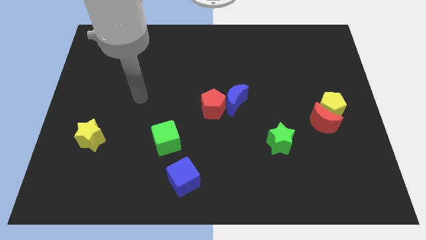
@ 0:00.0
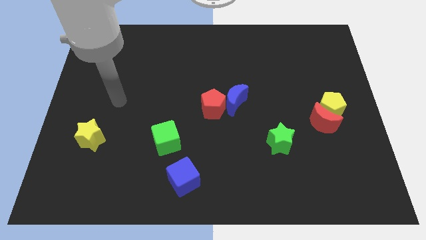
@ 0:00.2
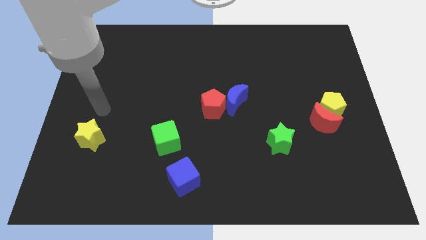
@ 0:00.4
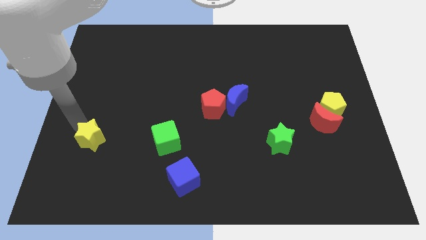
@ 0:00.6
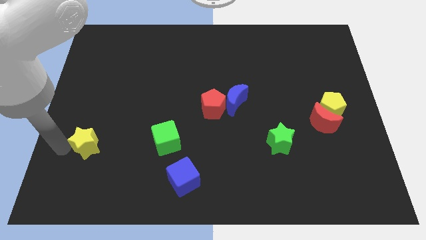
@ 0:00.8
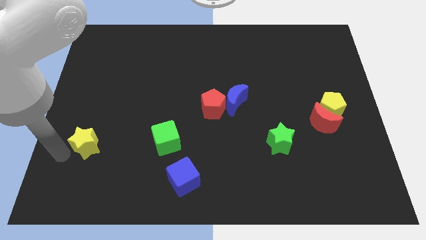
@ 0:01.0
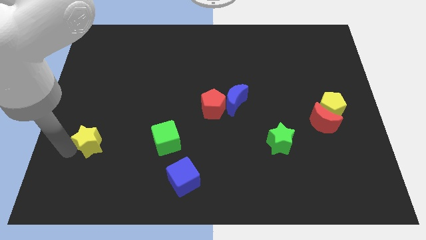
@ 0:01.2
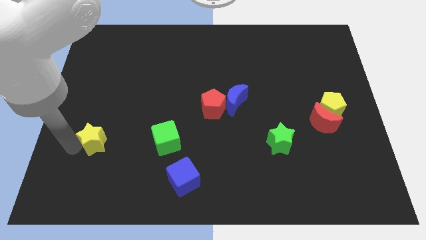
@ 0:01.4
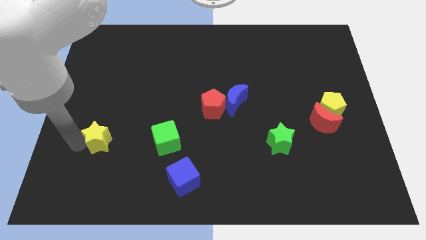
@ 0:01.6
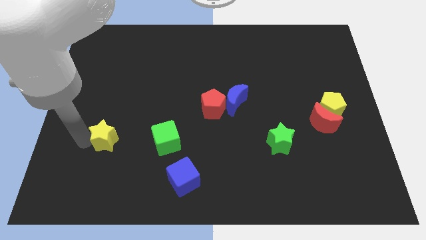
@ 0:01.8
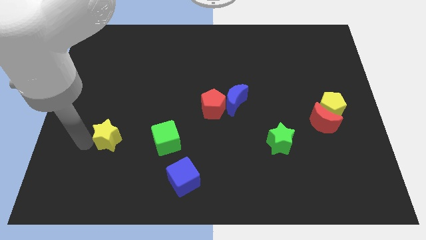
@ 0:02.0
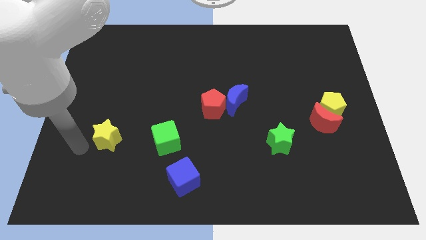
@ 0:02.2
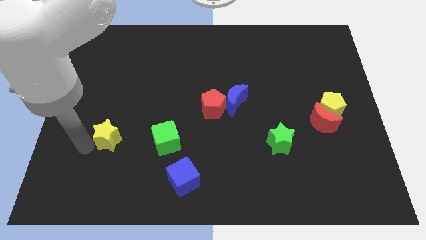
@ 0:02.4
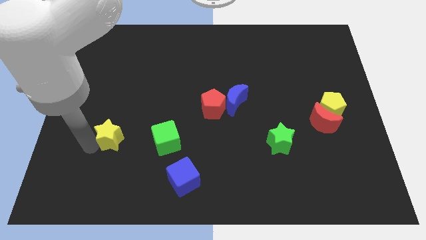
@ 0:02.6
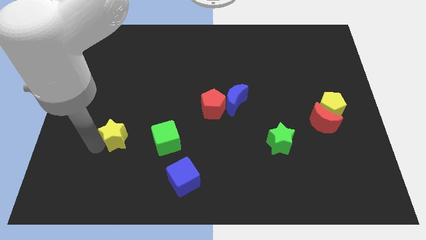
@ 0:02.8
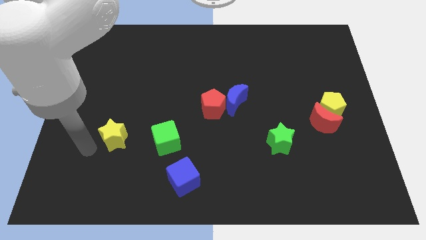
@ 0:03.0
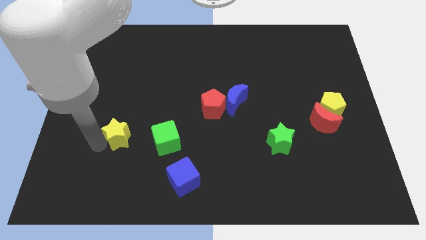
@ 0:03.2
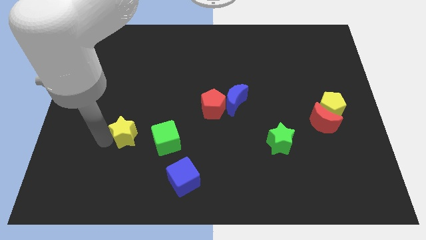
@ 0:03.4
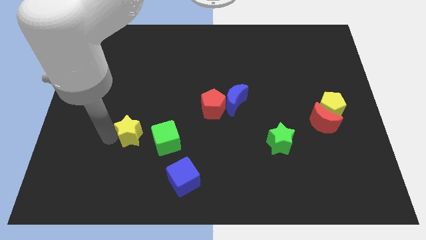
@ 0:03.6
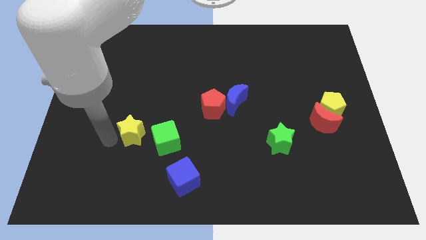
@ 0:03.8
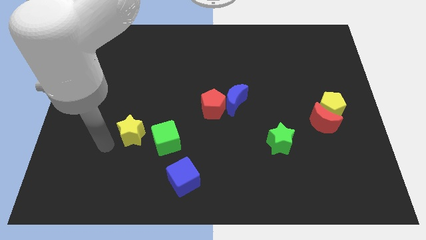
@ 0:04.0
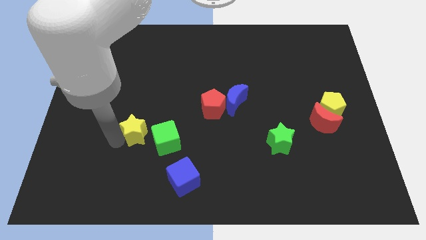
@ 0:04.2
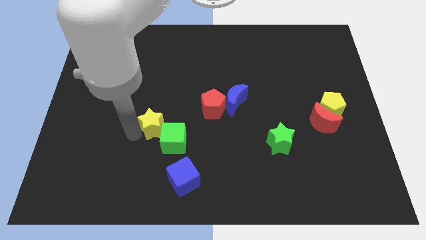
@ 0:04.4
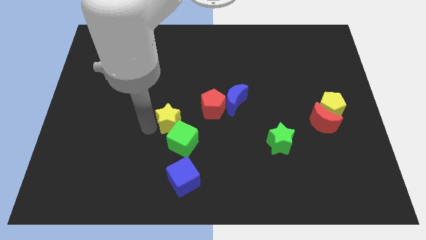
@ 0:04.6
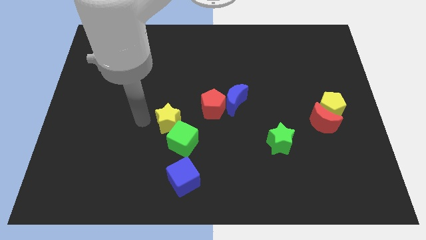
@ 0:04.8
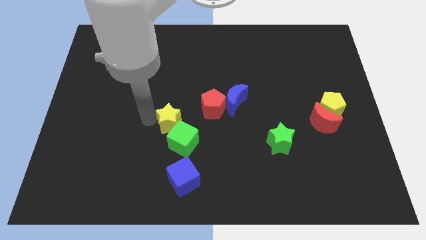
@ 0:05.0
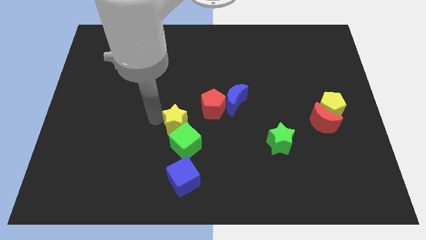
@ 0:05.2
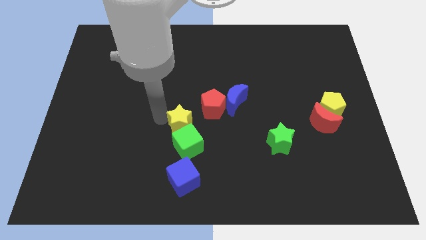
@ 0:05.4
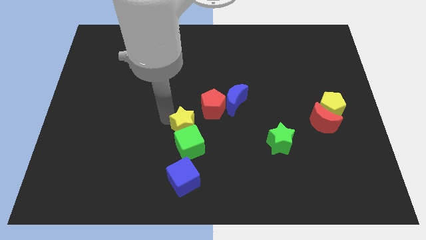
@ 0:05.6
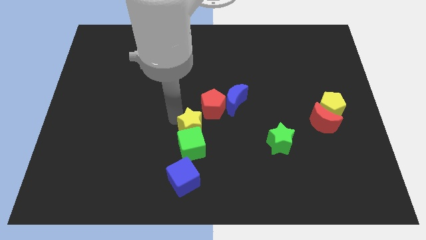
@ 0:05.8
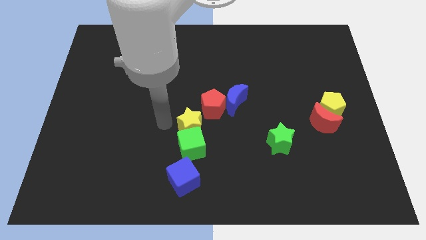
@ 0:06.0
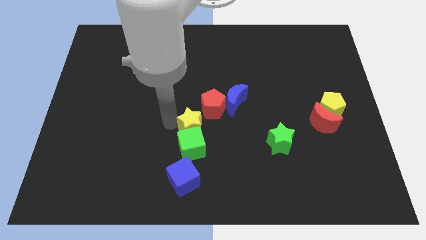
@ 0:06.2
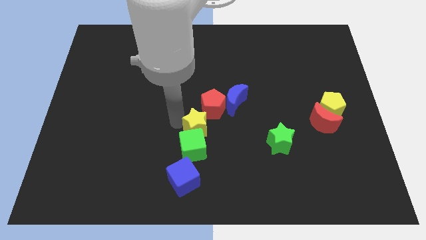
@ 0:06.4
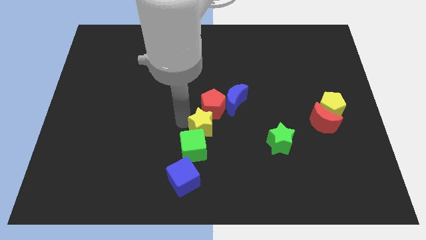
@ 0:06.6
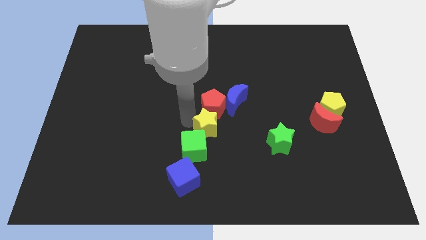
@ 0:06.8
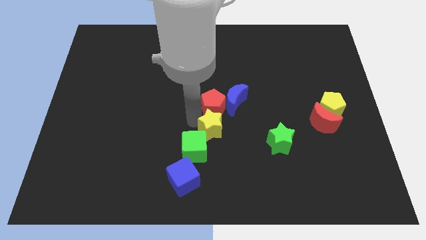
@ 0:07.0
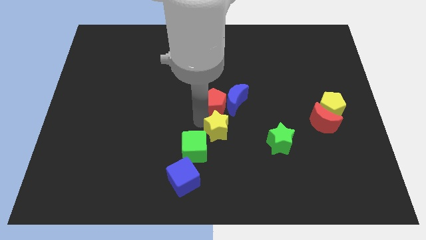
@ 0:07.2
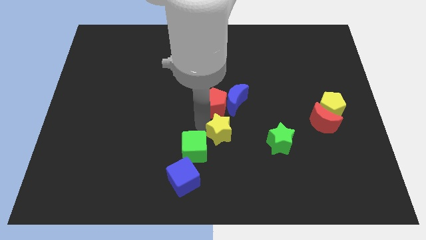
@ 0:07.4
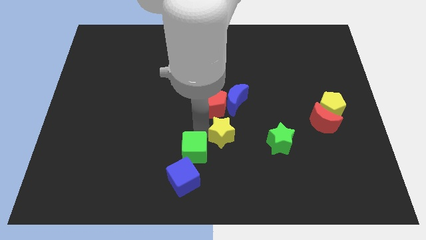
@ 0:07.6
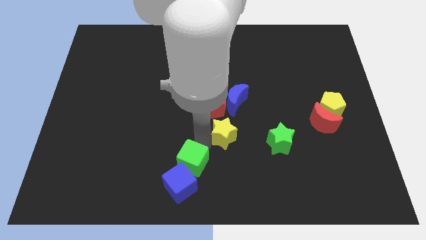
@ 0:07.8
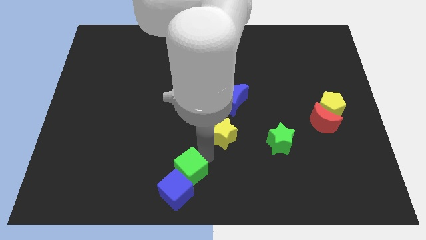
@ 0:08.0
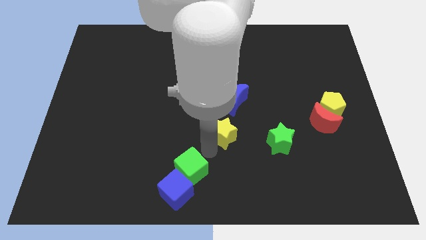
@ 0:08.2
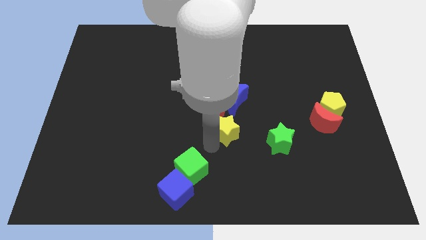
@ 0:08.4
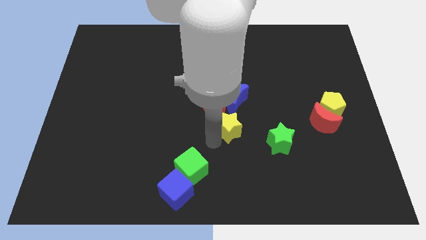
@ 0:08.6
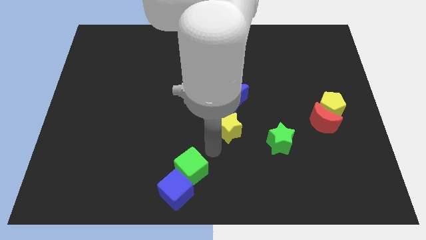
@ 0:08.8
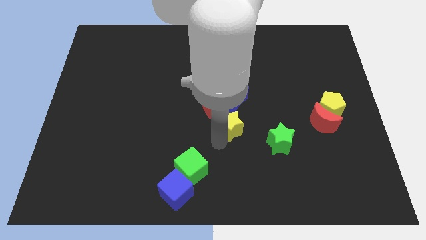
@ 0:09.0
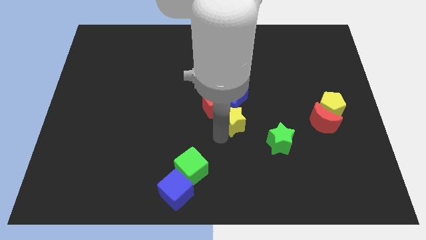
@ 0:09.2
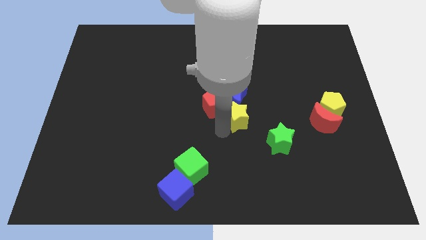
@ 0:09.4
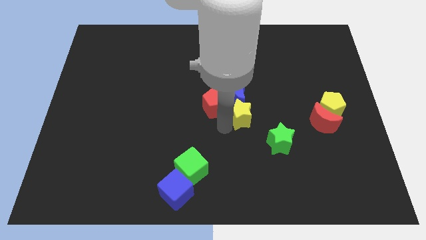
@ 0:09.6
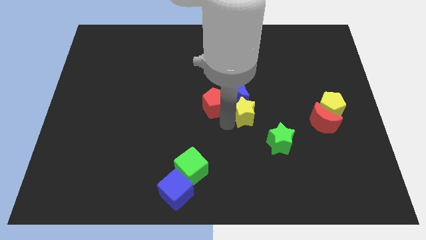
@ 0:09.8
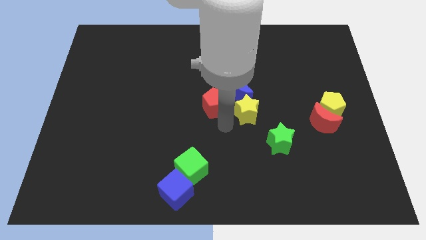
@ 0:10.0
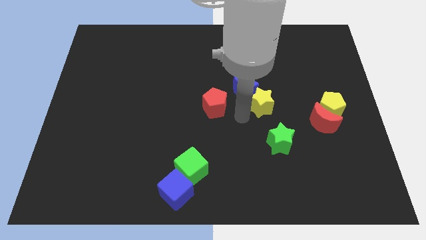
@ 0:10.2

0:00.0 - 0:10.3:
move the yellow star to the right of the blue moon

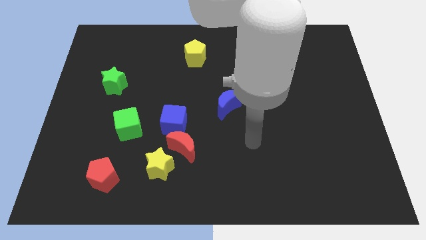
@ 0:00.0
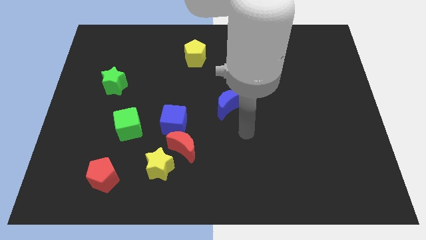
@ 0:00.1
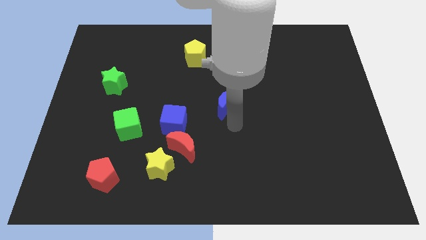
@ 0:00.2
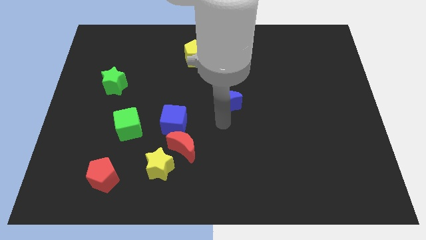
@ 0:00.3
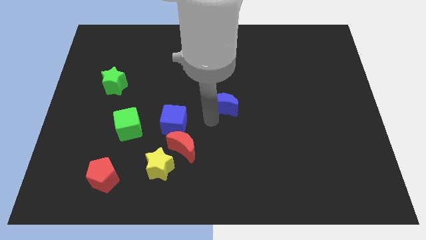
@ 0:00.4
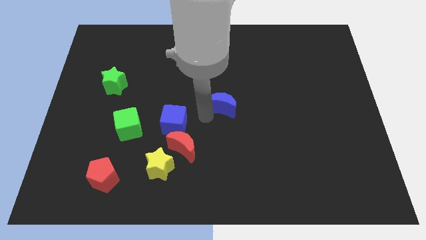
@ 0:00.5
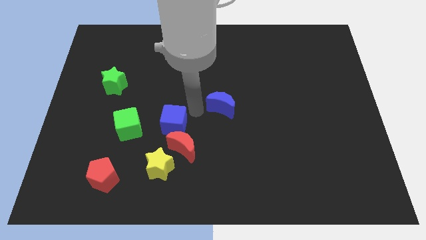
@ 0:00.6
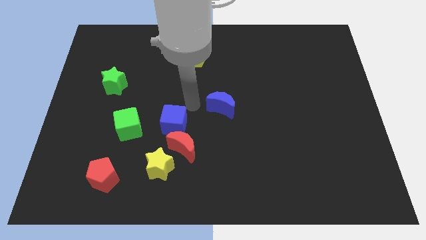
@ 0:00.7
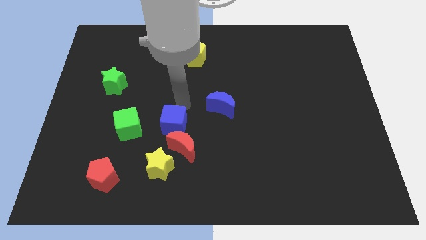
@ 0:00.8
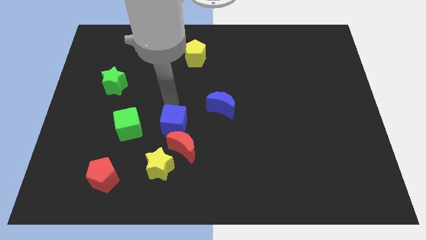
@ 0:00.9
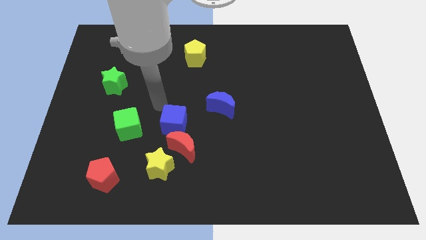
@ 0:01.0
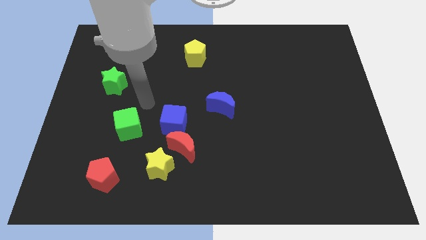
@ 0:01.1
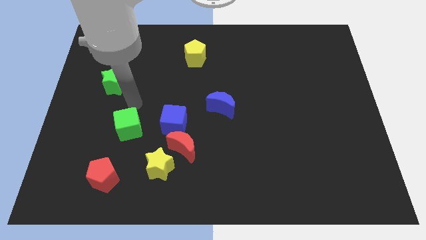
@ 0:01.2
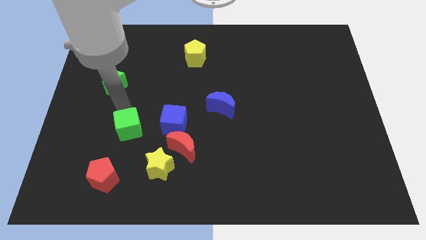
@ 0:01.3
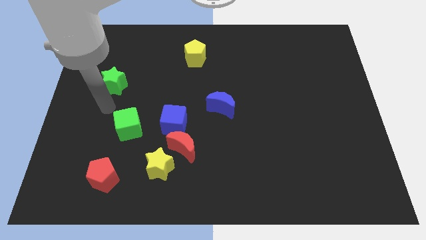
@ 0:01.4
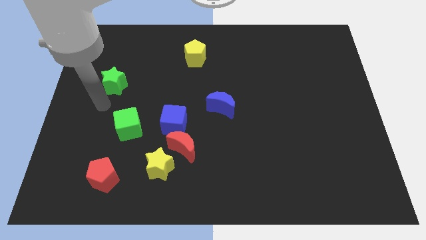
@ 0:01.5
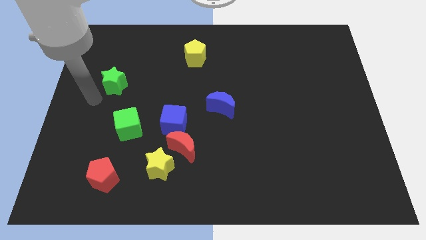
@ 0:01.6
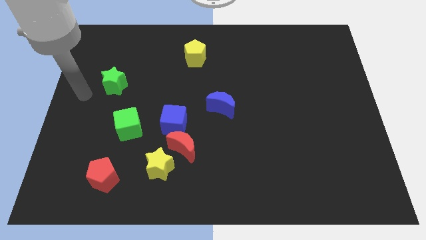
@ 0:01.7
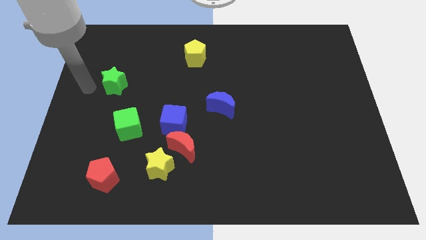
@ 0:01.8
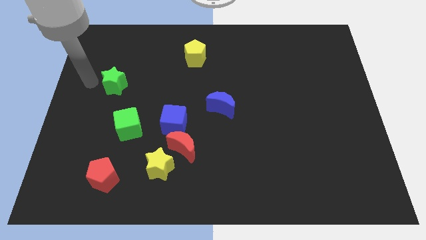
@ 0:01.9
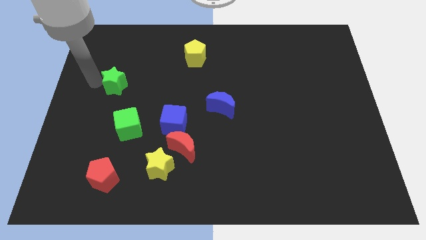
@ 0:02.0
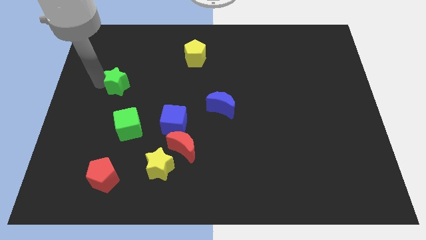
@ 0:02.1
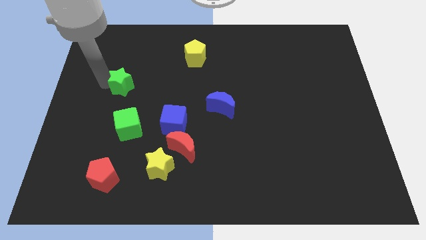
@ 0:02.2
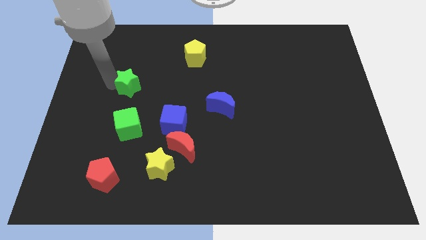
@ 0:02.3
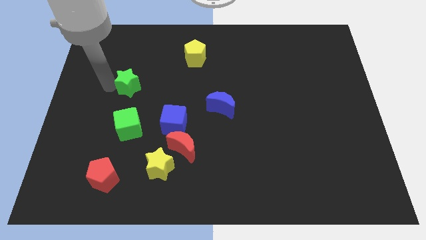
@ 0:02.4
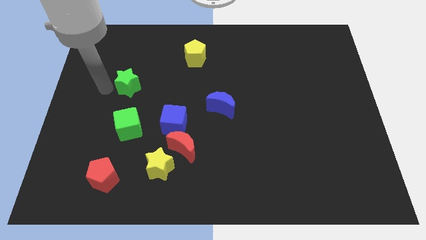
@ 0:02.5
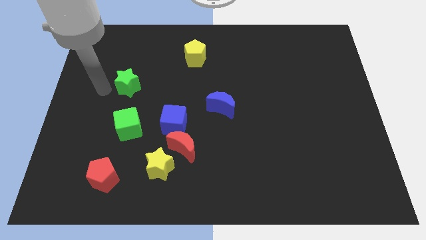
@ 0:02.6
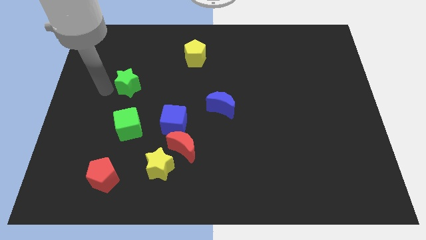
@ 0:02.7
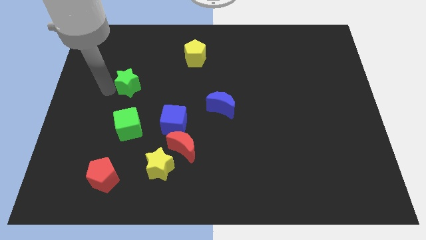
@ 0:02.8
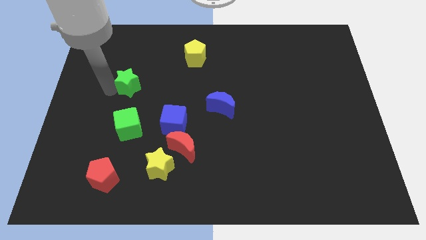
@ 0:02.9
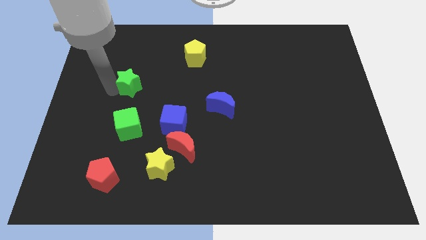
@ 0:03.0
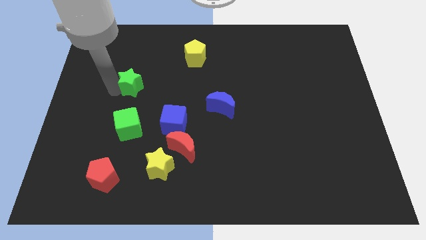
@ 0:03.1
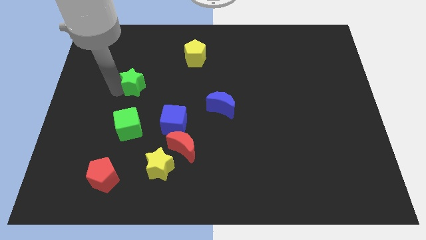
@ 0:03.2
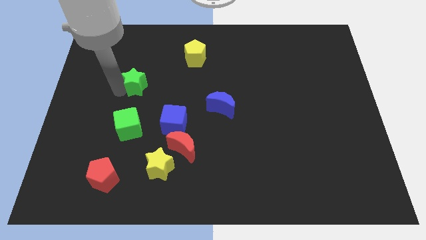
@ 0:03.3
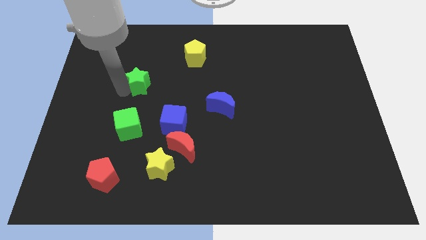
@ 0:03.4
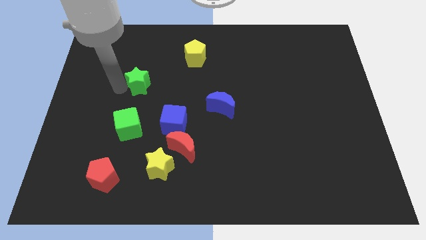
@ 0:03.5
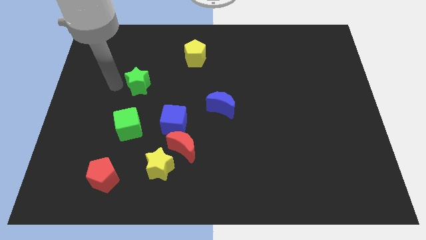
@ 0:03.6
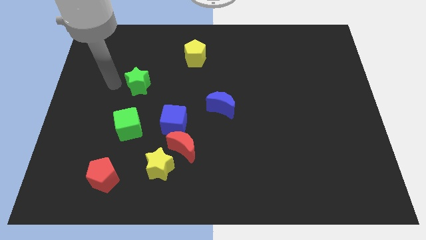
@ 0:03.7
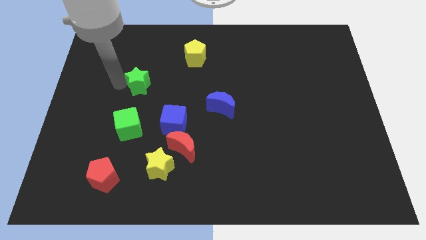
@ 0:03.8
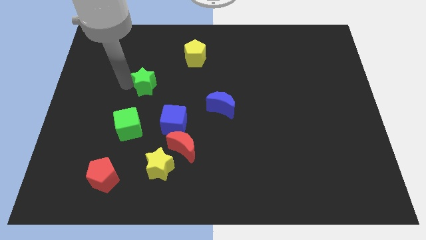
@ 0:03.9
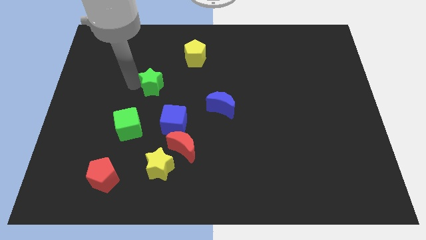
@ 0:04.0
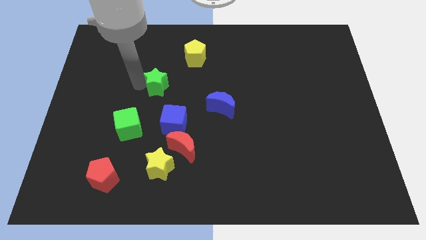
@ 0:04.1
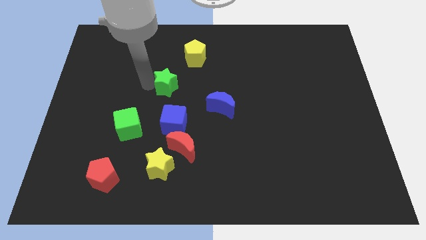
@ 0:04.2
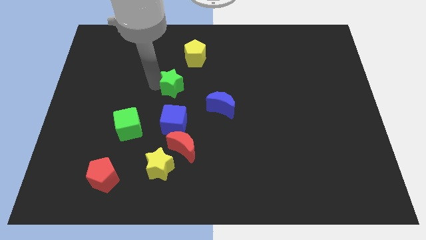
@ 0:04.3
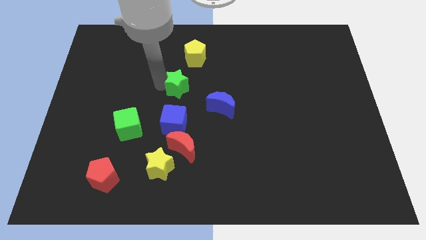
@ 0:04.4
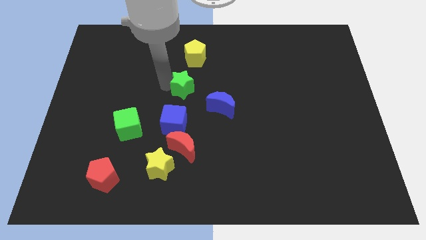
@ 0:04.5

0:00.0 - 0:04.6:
put the green star to the top left of the blue moon
